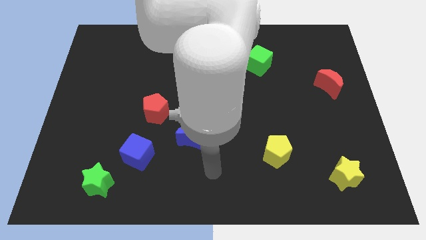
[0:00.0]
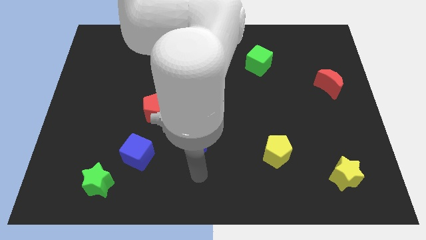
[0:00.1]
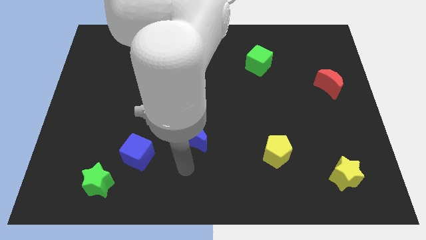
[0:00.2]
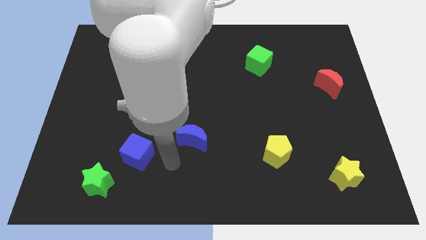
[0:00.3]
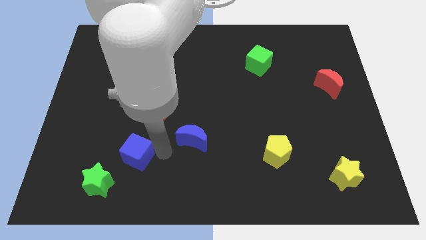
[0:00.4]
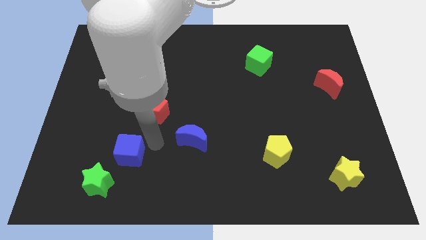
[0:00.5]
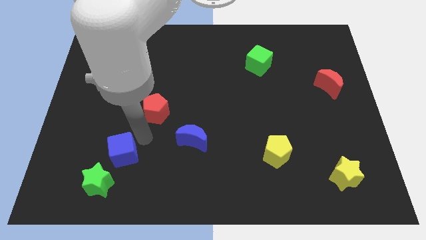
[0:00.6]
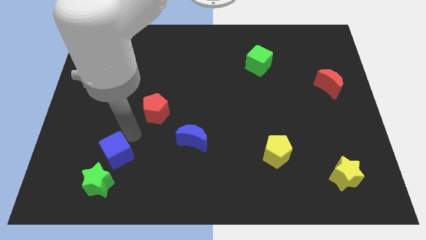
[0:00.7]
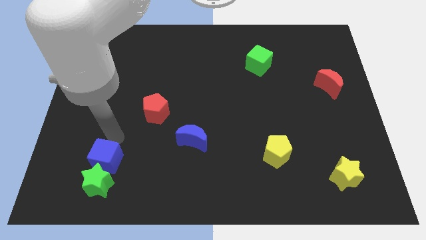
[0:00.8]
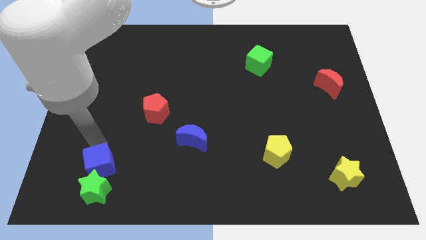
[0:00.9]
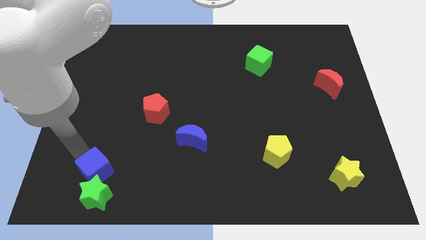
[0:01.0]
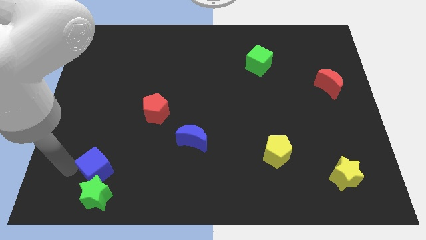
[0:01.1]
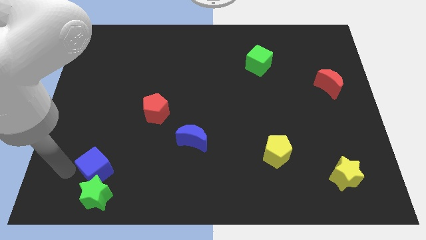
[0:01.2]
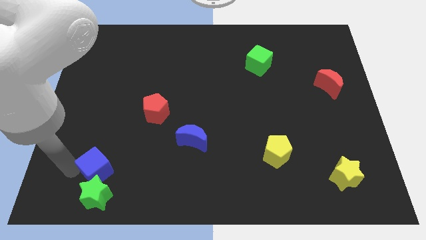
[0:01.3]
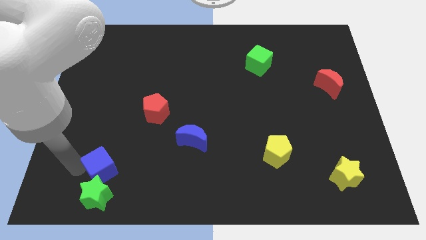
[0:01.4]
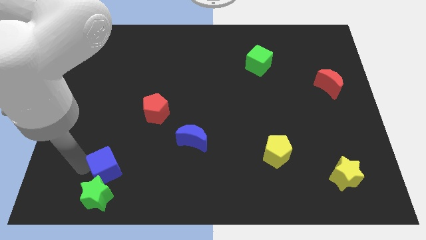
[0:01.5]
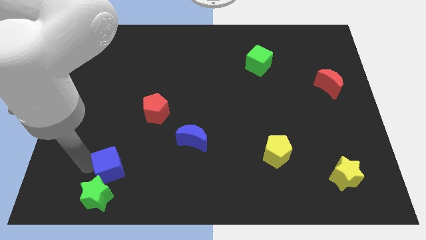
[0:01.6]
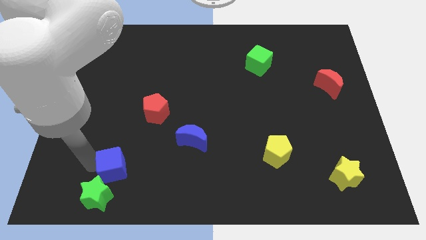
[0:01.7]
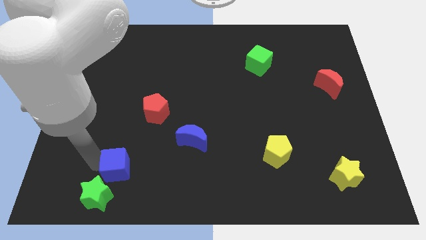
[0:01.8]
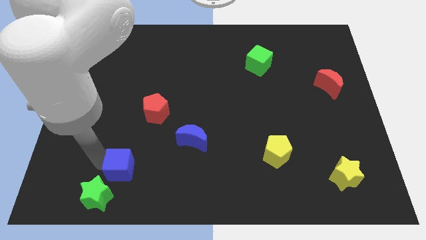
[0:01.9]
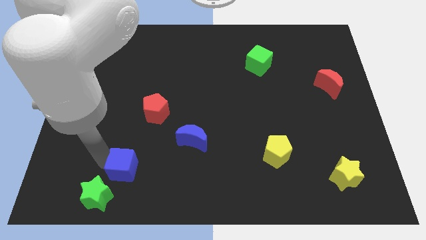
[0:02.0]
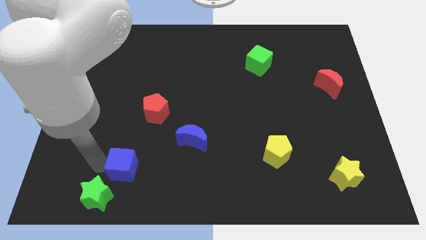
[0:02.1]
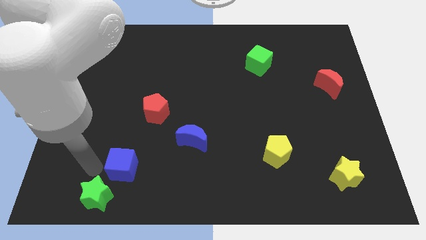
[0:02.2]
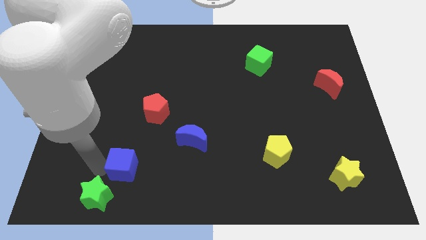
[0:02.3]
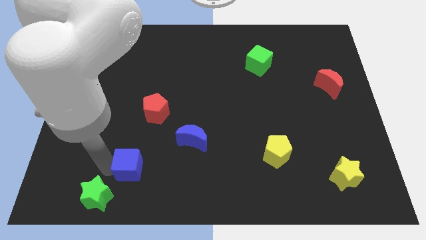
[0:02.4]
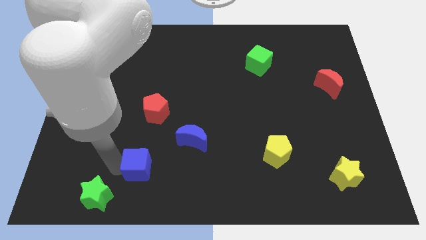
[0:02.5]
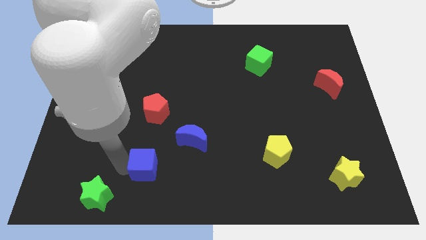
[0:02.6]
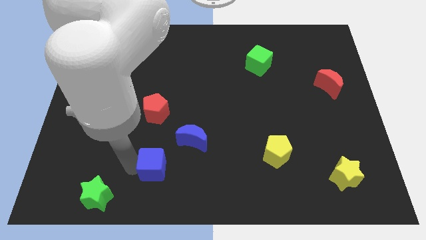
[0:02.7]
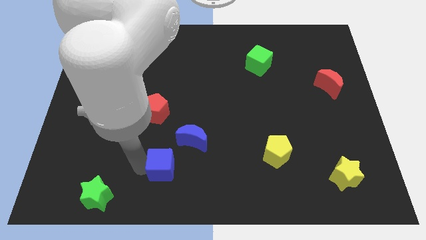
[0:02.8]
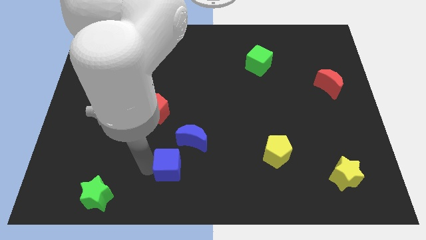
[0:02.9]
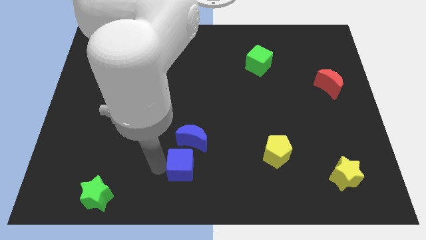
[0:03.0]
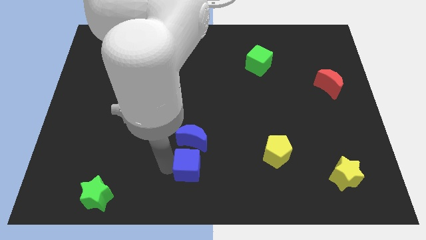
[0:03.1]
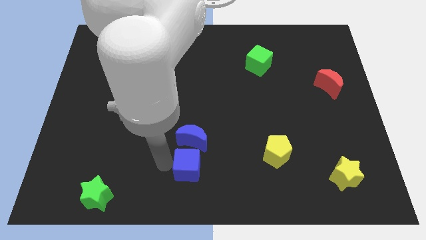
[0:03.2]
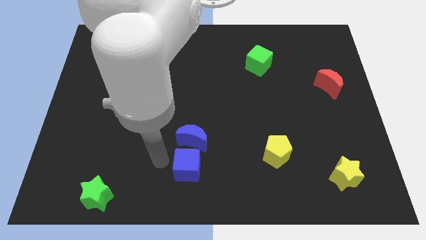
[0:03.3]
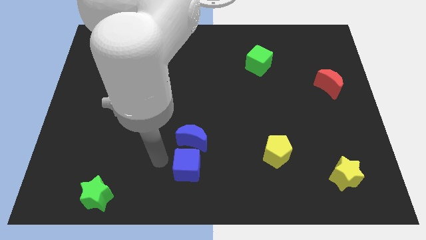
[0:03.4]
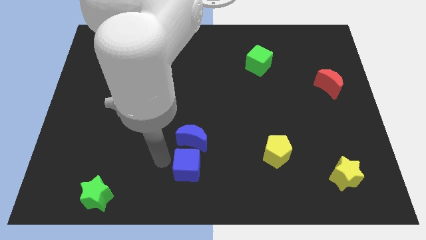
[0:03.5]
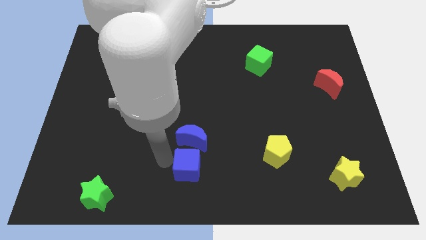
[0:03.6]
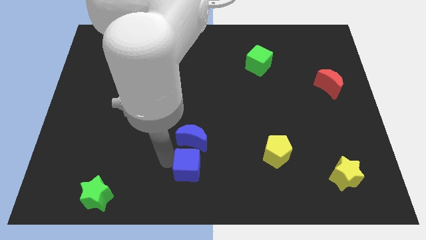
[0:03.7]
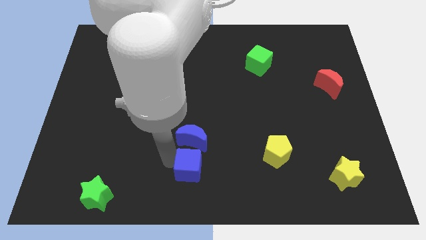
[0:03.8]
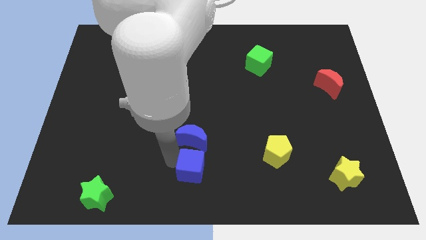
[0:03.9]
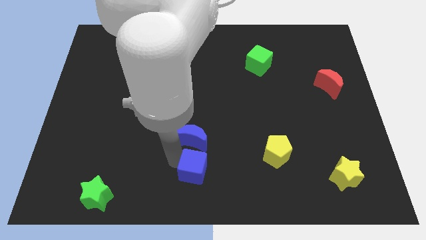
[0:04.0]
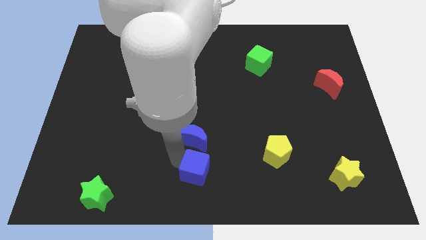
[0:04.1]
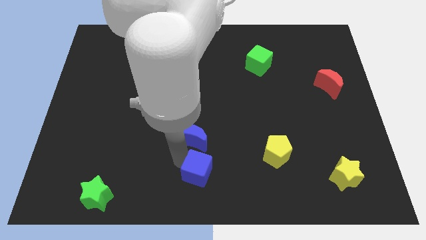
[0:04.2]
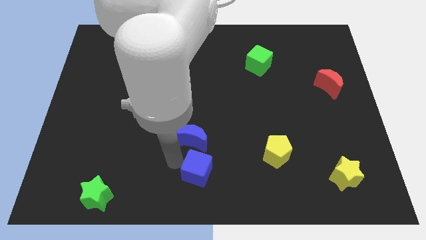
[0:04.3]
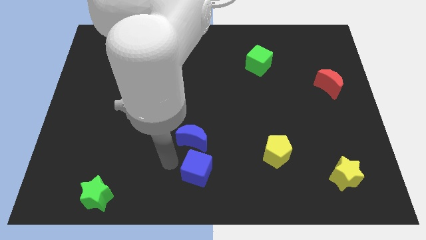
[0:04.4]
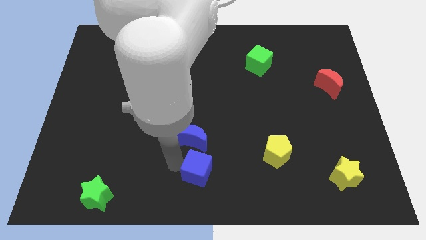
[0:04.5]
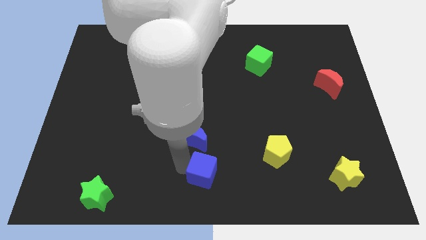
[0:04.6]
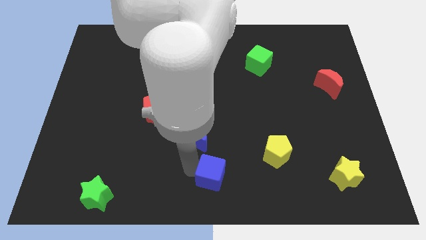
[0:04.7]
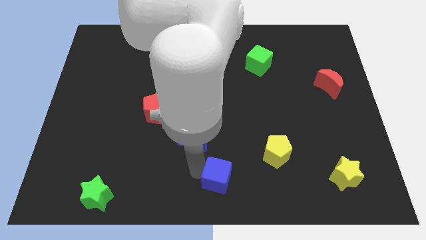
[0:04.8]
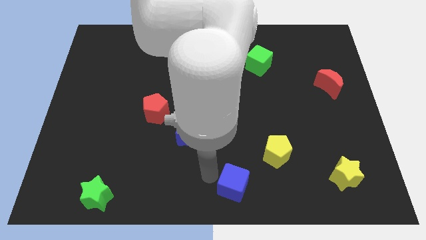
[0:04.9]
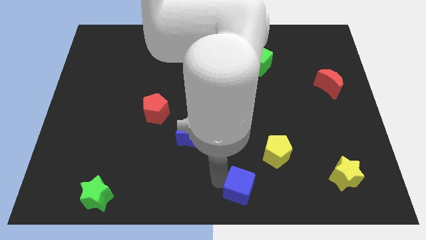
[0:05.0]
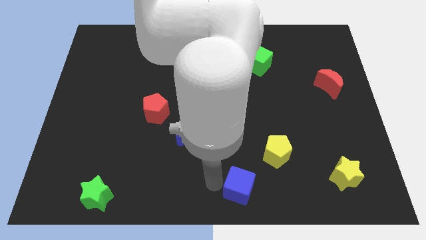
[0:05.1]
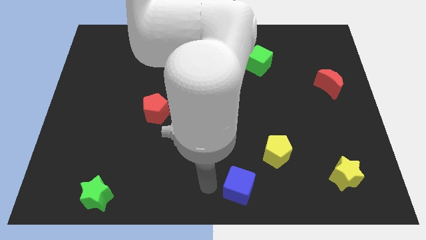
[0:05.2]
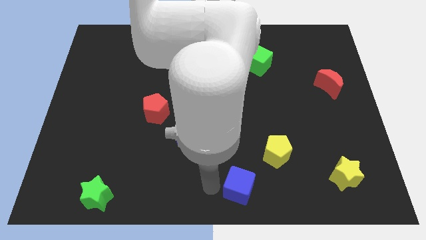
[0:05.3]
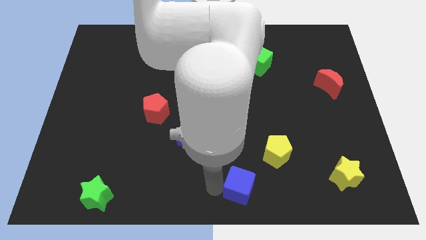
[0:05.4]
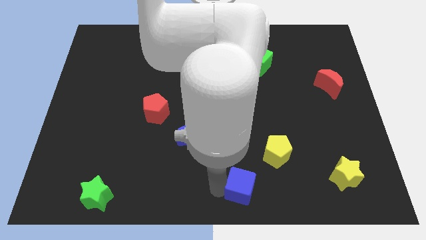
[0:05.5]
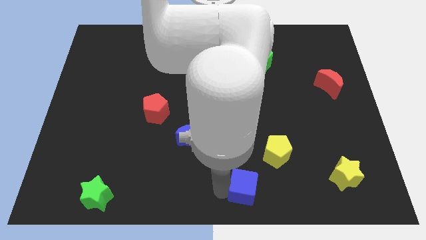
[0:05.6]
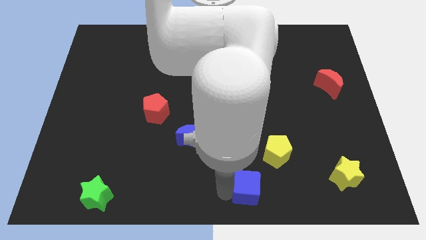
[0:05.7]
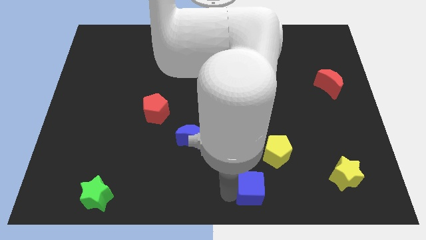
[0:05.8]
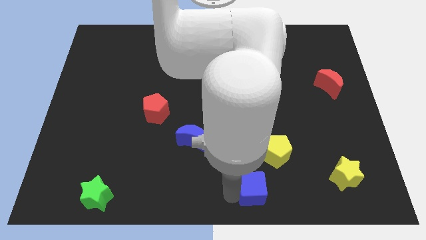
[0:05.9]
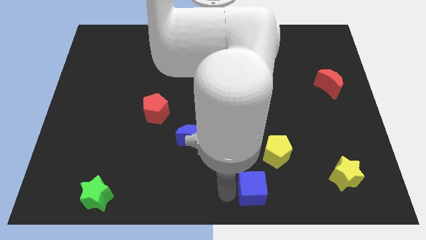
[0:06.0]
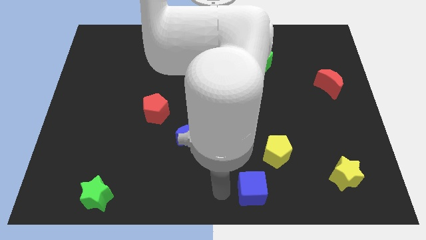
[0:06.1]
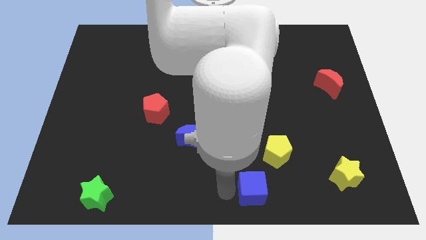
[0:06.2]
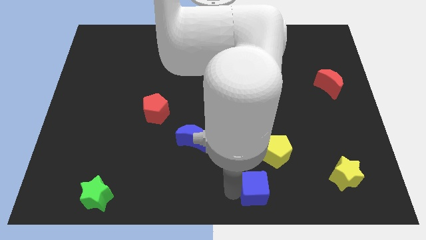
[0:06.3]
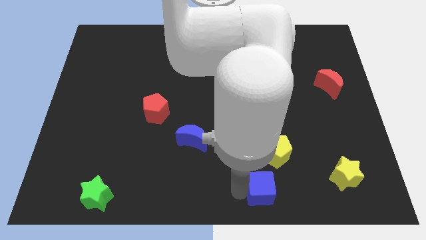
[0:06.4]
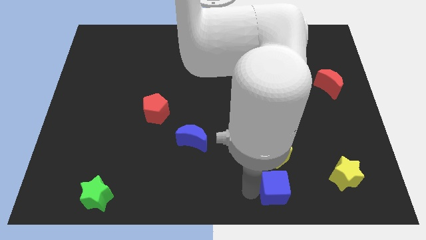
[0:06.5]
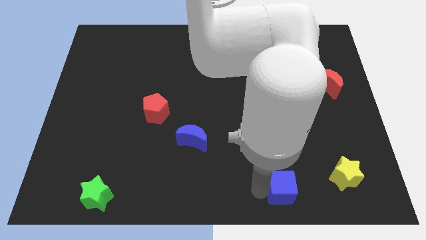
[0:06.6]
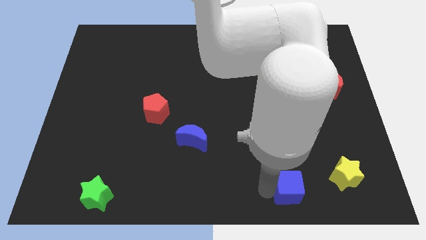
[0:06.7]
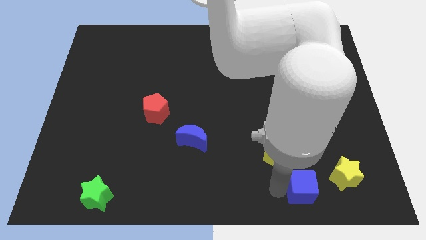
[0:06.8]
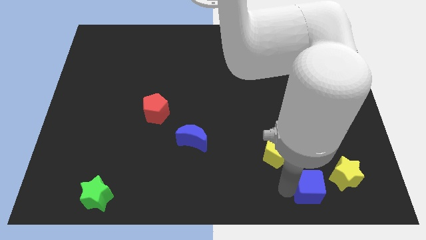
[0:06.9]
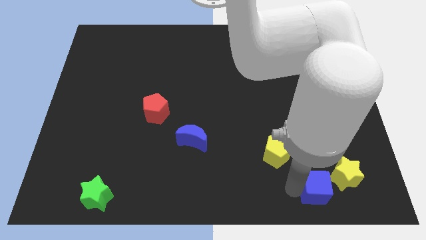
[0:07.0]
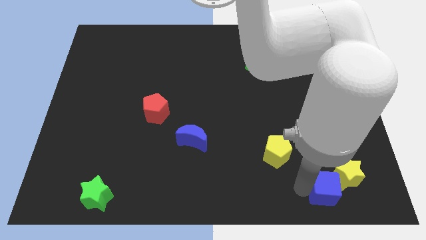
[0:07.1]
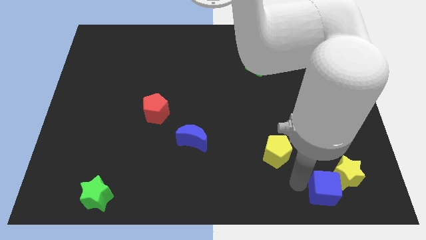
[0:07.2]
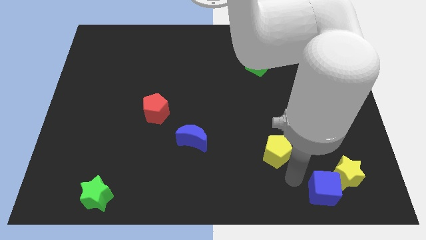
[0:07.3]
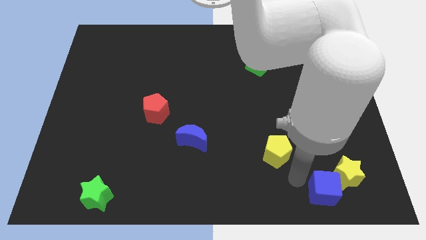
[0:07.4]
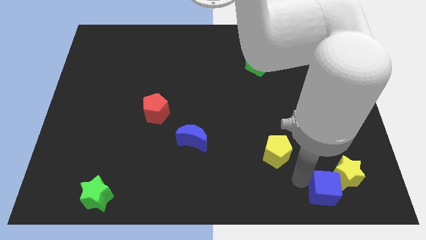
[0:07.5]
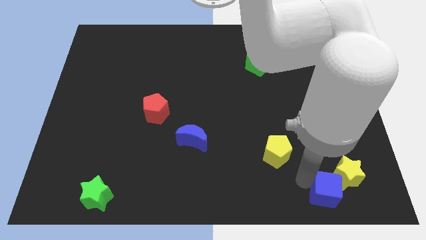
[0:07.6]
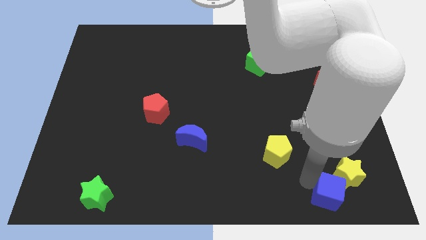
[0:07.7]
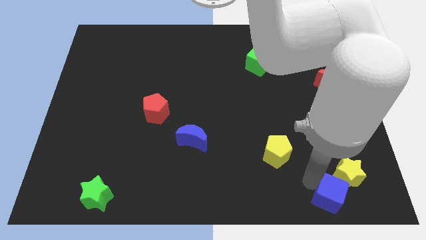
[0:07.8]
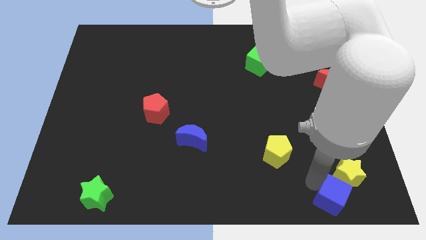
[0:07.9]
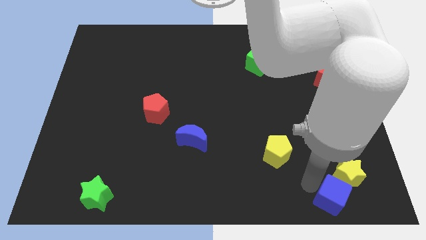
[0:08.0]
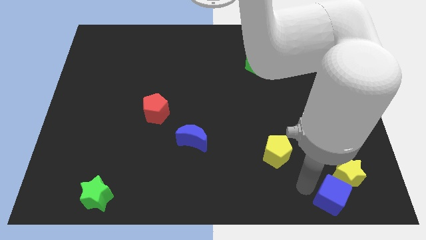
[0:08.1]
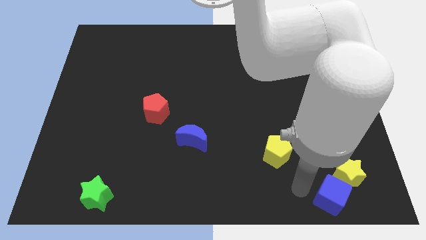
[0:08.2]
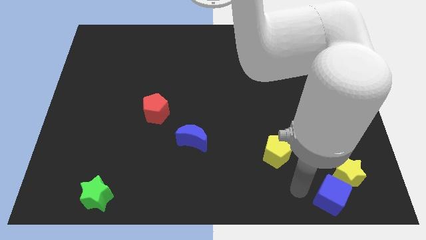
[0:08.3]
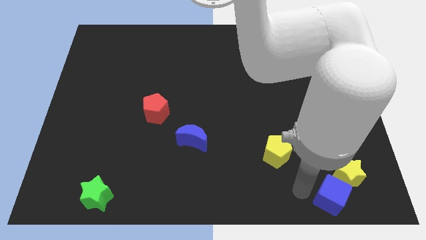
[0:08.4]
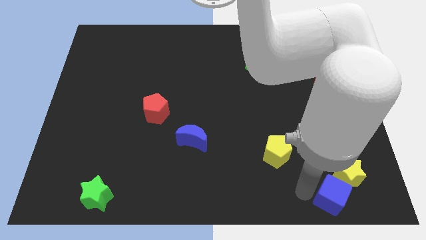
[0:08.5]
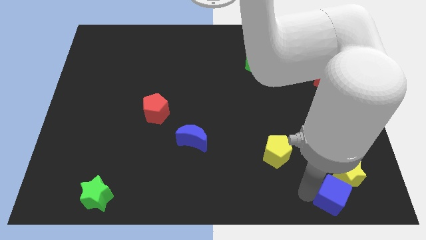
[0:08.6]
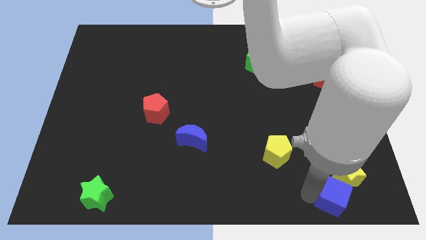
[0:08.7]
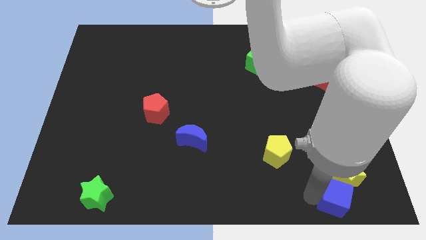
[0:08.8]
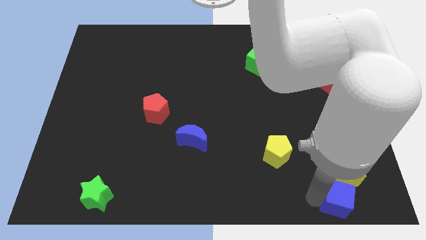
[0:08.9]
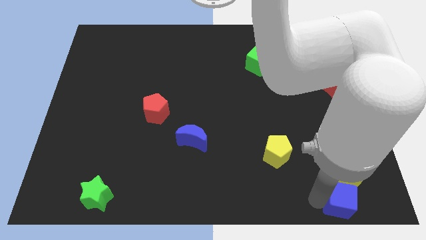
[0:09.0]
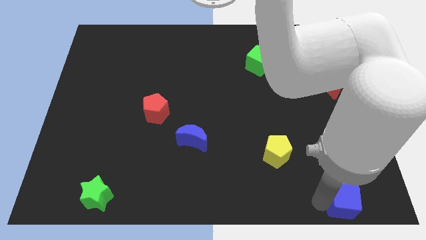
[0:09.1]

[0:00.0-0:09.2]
push the blue cube to the bottom right
